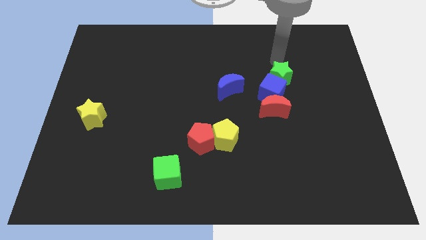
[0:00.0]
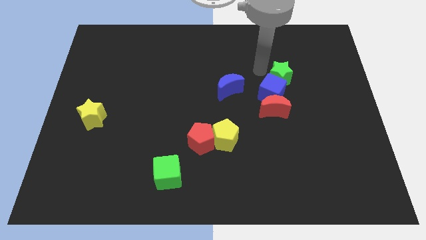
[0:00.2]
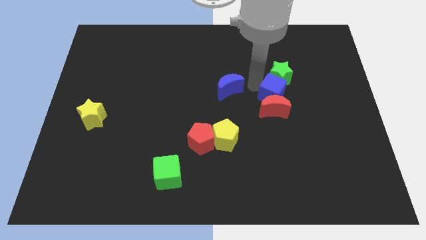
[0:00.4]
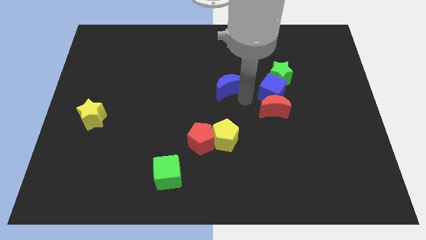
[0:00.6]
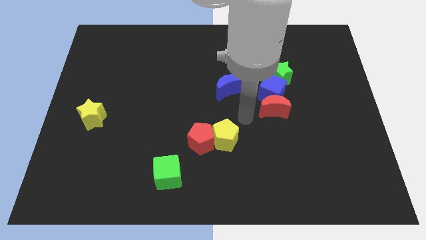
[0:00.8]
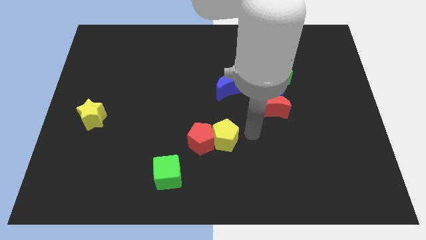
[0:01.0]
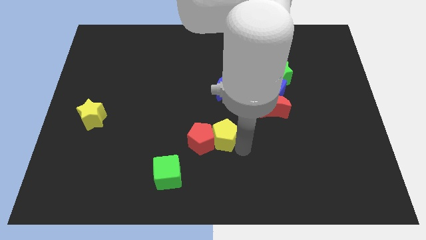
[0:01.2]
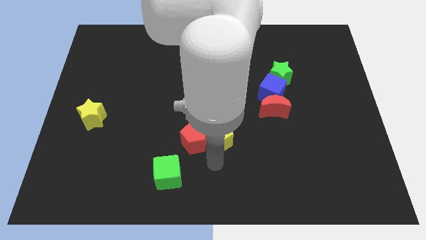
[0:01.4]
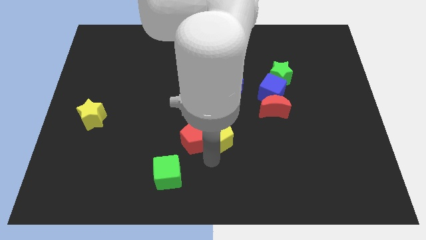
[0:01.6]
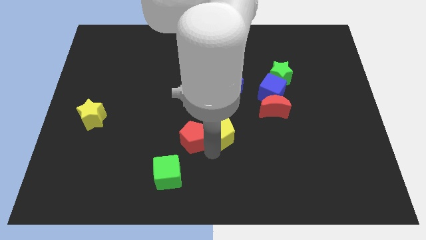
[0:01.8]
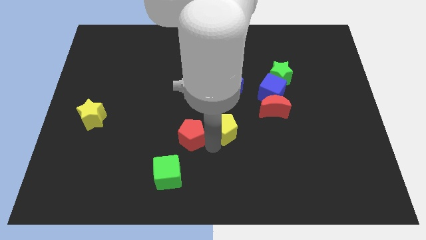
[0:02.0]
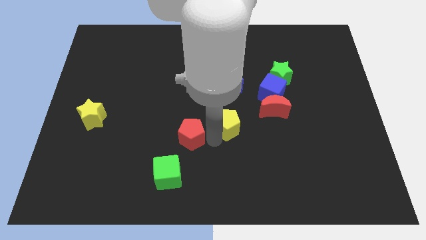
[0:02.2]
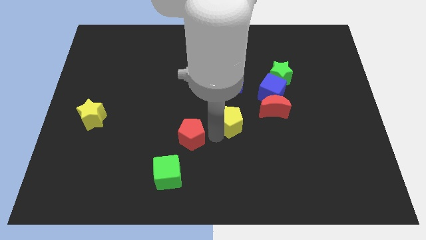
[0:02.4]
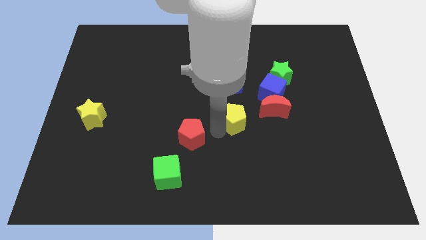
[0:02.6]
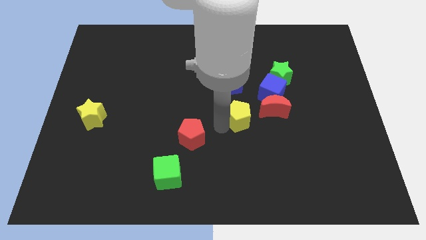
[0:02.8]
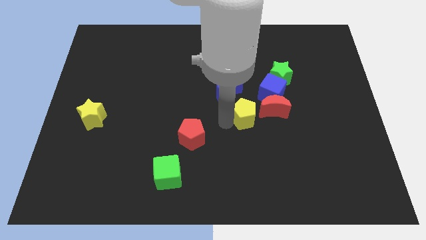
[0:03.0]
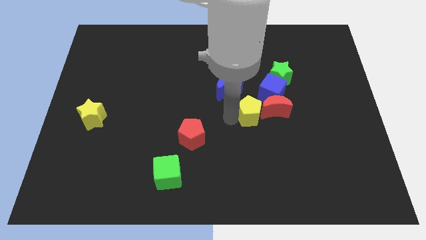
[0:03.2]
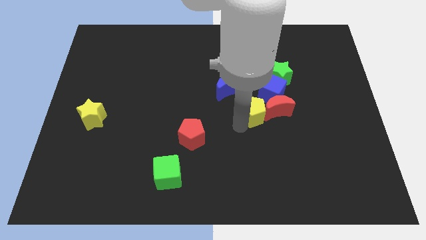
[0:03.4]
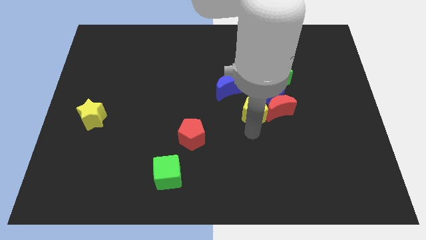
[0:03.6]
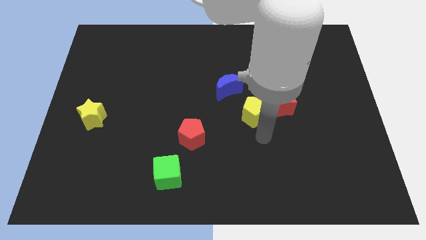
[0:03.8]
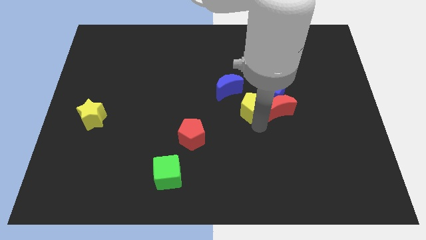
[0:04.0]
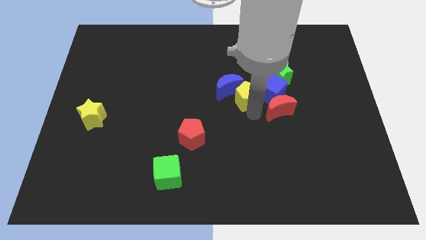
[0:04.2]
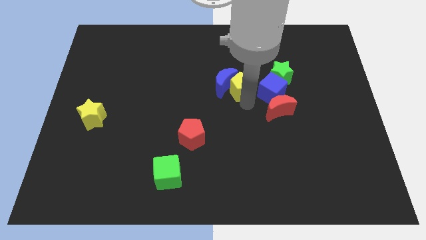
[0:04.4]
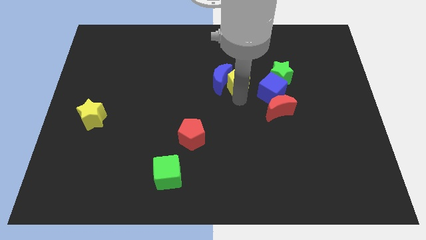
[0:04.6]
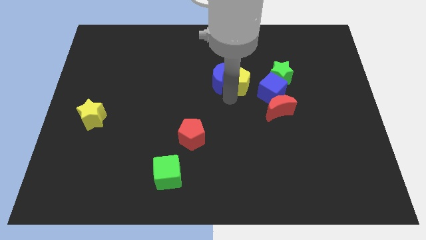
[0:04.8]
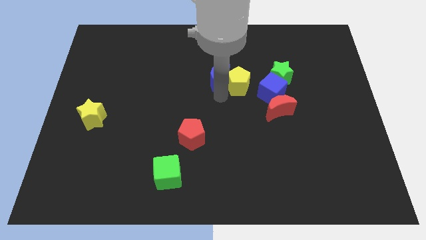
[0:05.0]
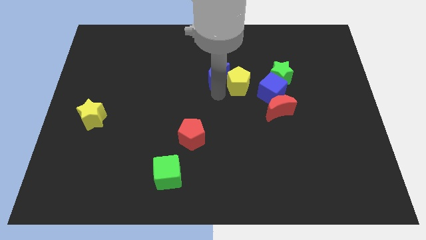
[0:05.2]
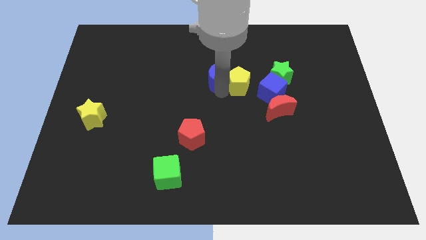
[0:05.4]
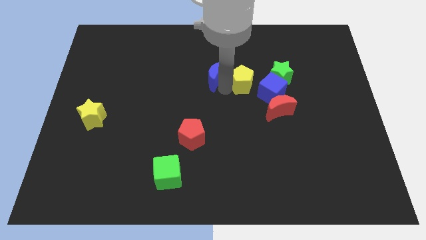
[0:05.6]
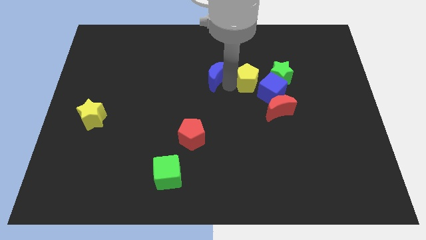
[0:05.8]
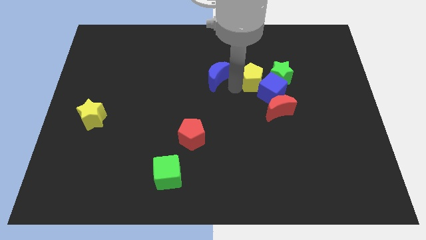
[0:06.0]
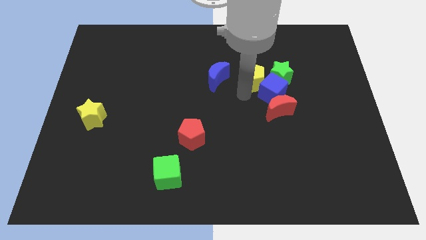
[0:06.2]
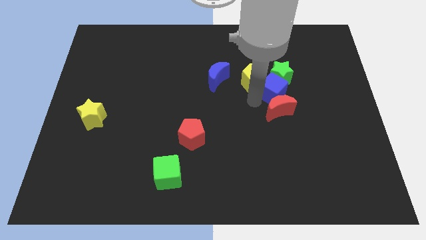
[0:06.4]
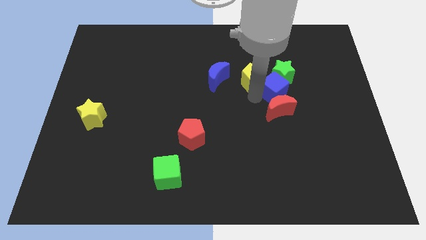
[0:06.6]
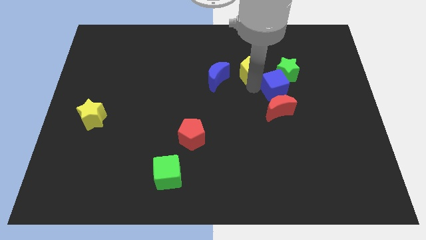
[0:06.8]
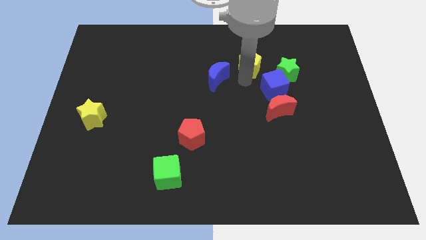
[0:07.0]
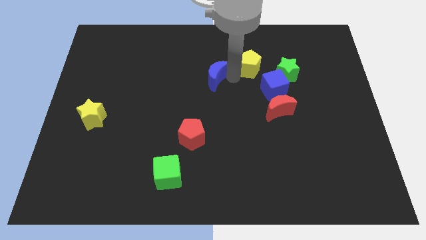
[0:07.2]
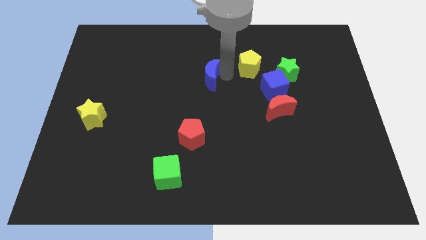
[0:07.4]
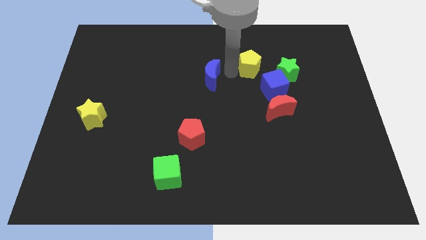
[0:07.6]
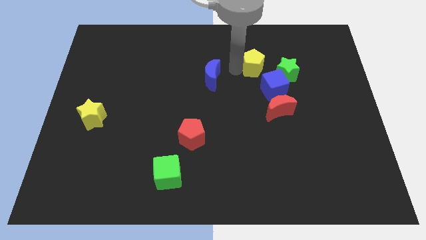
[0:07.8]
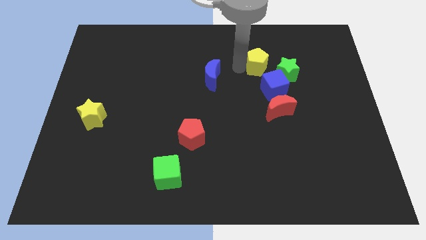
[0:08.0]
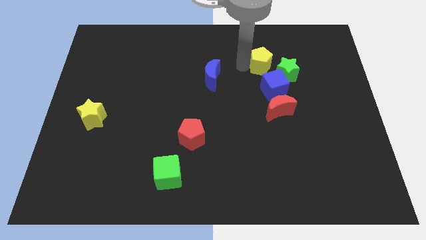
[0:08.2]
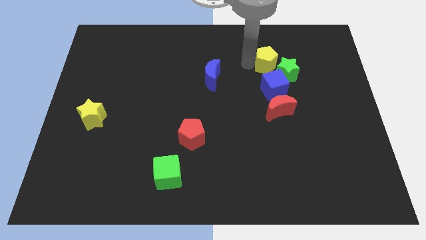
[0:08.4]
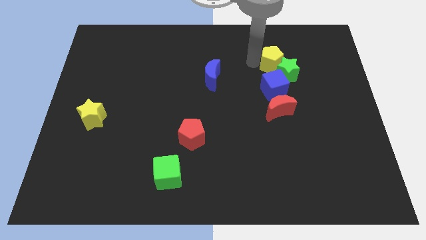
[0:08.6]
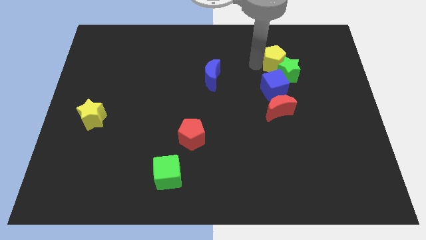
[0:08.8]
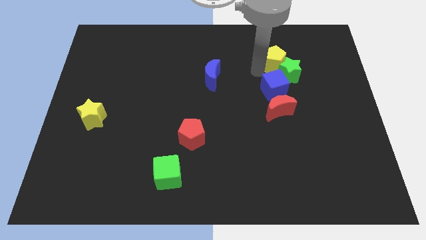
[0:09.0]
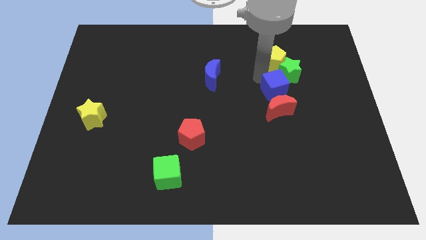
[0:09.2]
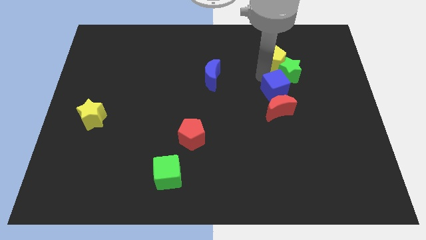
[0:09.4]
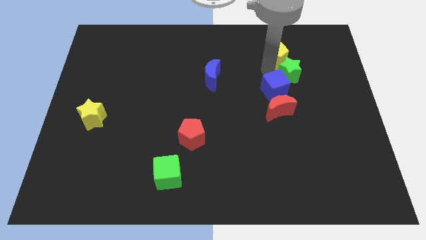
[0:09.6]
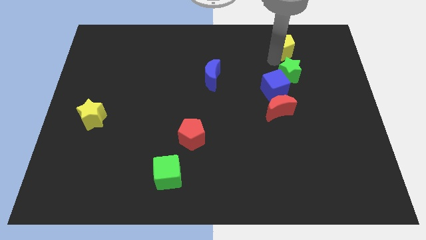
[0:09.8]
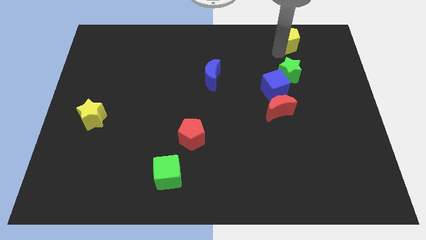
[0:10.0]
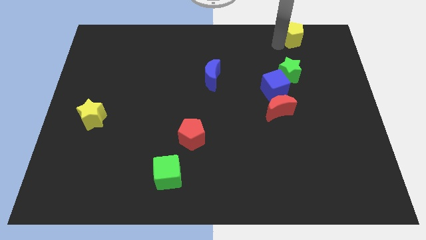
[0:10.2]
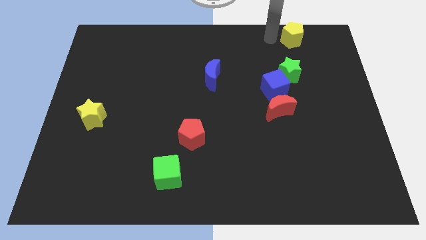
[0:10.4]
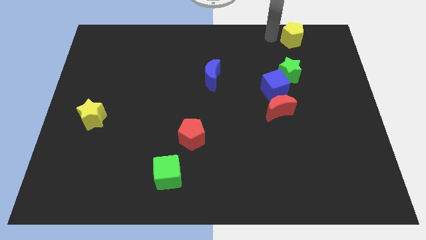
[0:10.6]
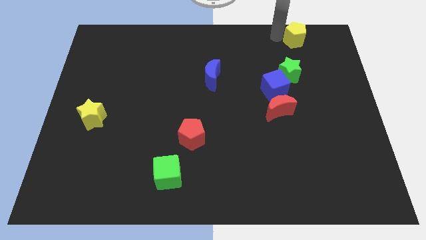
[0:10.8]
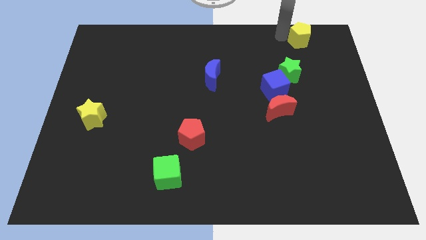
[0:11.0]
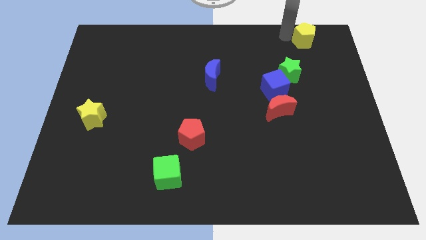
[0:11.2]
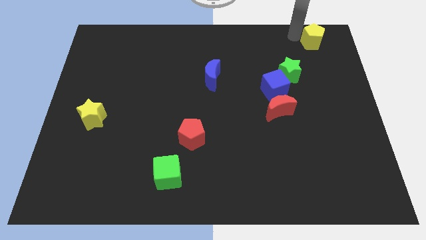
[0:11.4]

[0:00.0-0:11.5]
slide the yellow pentagon to the top right of the board

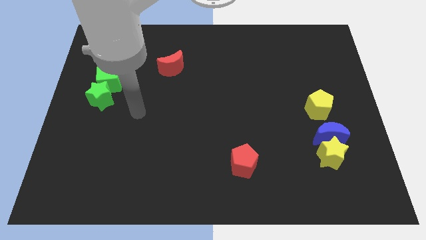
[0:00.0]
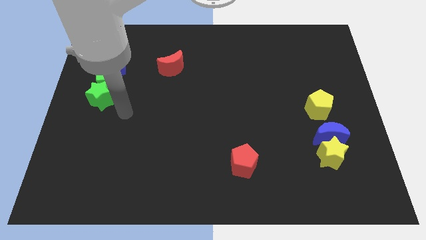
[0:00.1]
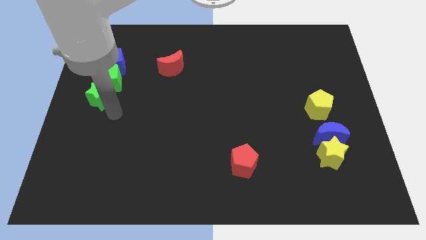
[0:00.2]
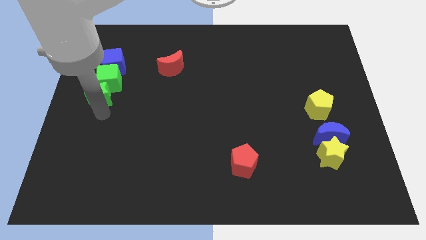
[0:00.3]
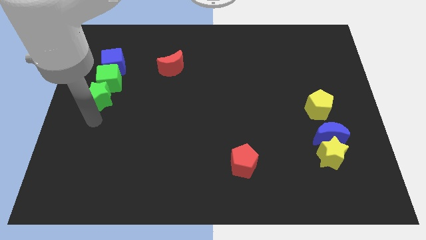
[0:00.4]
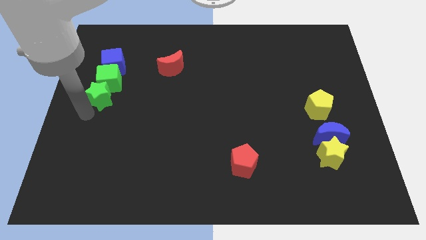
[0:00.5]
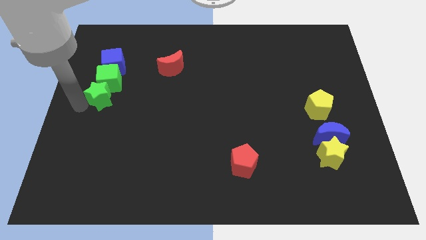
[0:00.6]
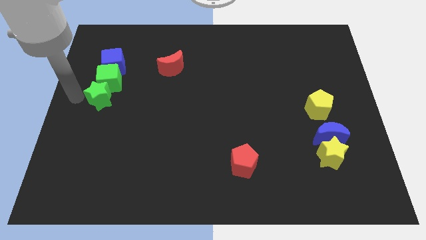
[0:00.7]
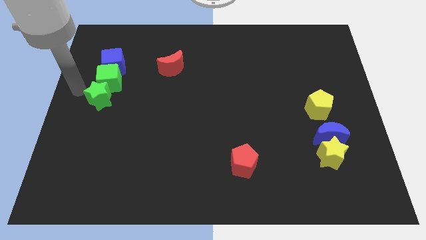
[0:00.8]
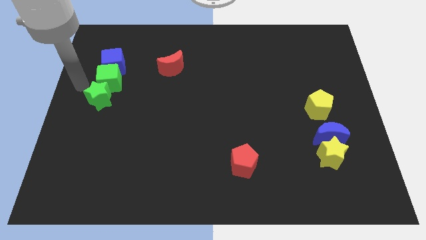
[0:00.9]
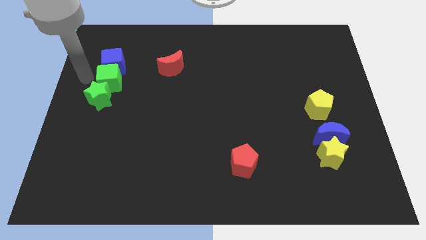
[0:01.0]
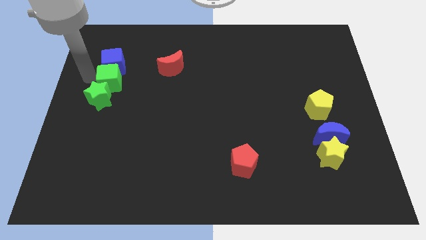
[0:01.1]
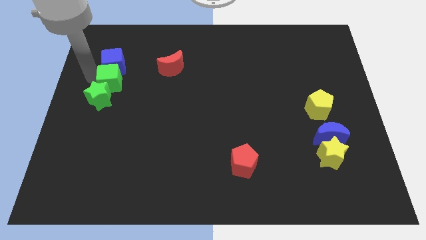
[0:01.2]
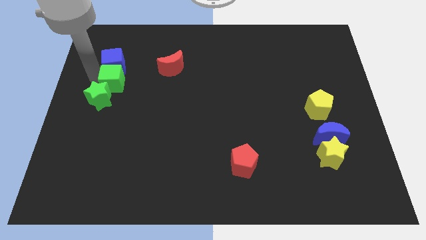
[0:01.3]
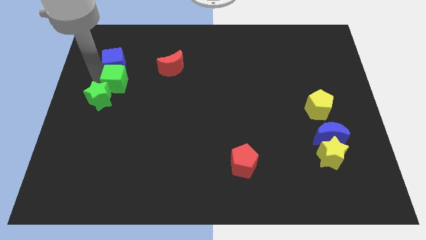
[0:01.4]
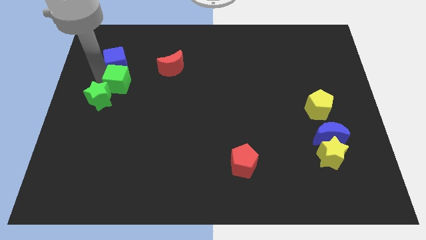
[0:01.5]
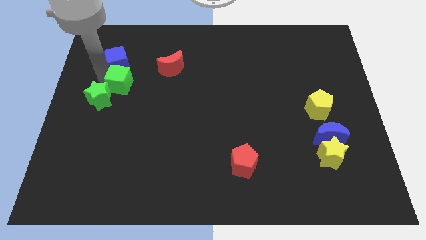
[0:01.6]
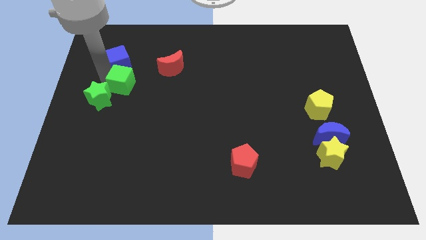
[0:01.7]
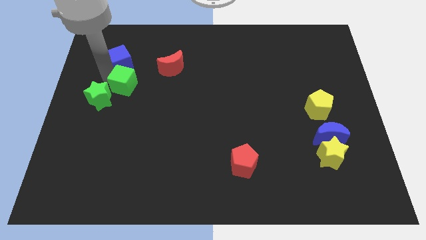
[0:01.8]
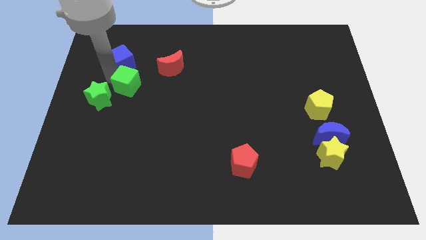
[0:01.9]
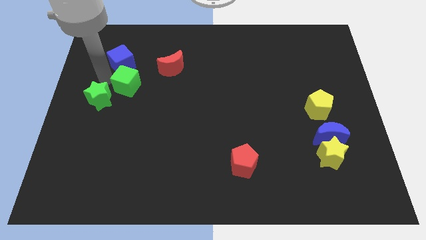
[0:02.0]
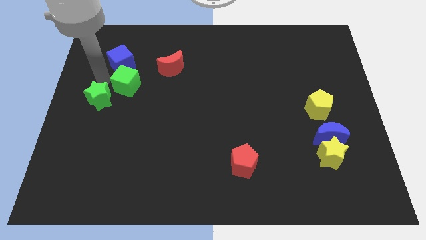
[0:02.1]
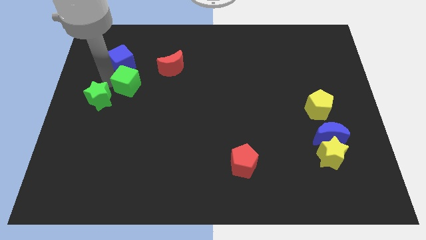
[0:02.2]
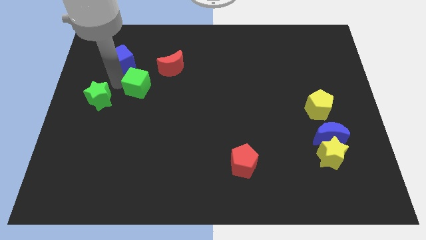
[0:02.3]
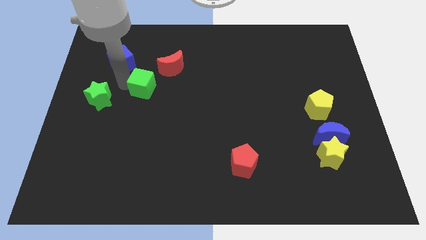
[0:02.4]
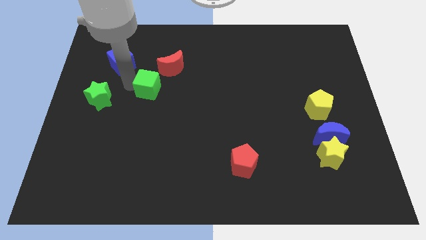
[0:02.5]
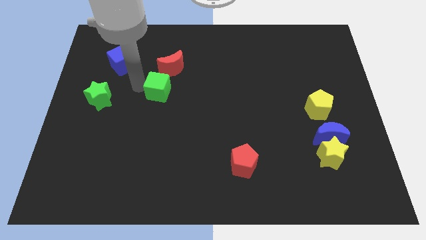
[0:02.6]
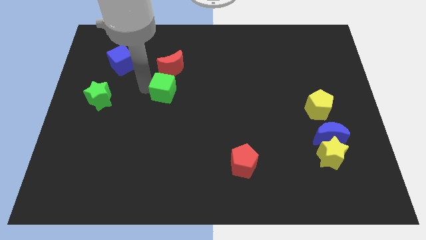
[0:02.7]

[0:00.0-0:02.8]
slide the green cube to the center
